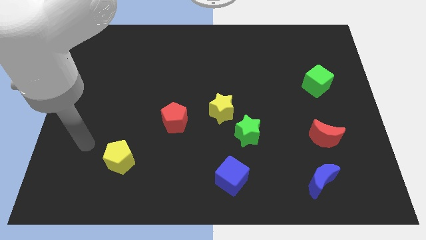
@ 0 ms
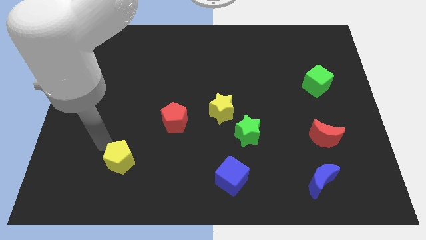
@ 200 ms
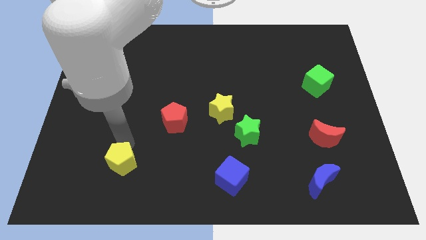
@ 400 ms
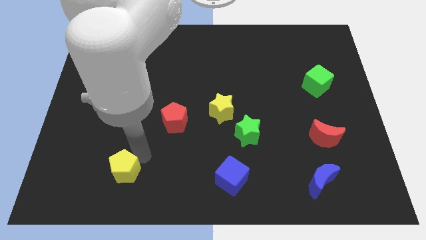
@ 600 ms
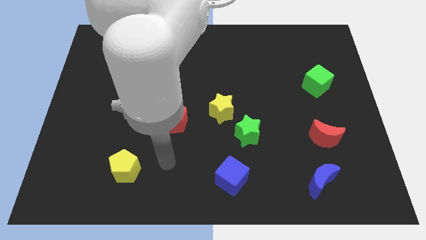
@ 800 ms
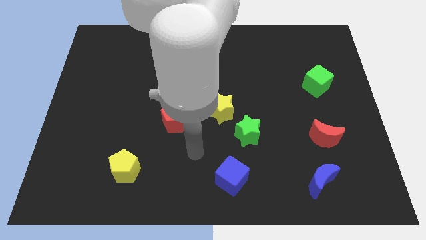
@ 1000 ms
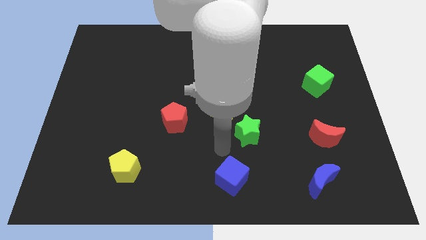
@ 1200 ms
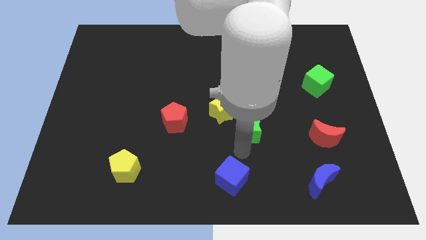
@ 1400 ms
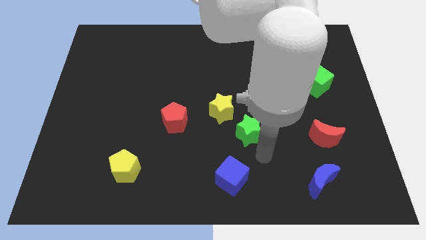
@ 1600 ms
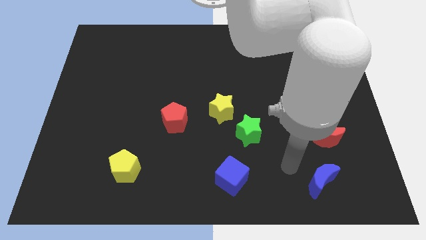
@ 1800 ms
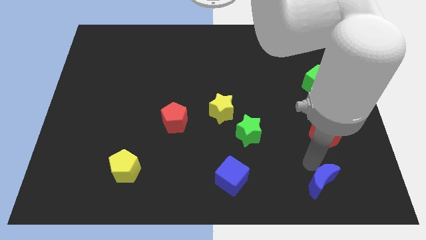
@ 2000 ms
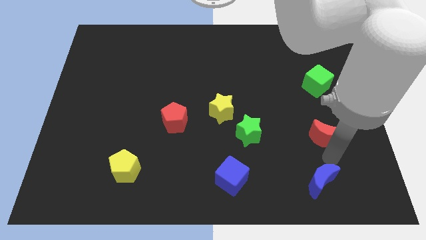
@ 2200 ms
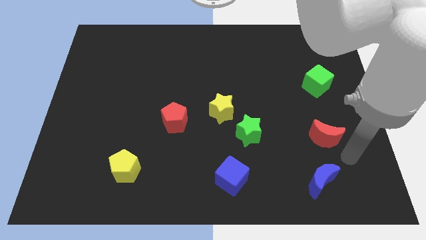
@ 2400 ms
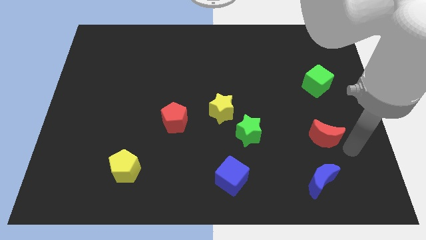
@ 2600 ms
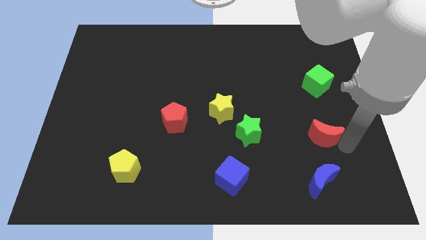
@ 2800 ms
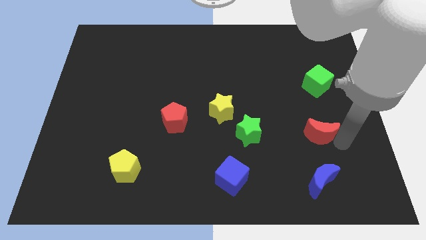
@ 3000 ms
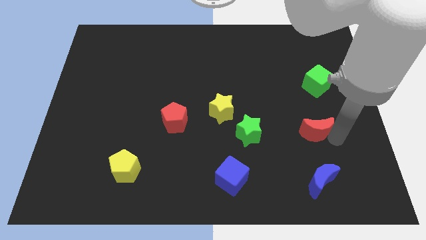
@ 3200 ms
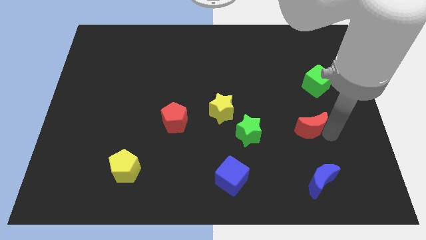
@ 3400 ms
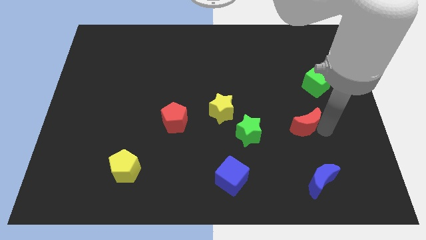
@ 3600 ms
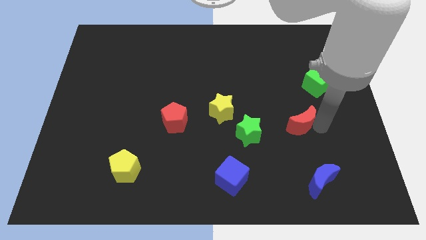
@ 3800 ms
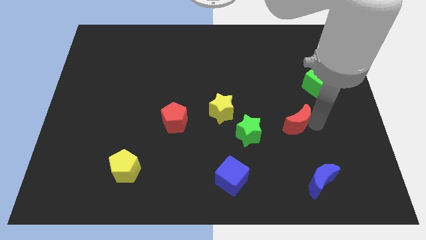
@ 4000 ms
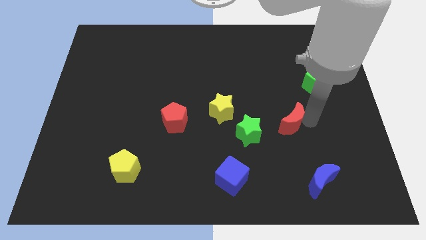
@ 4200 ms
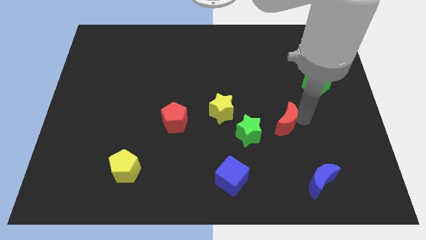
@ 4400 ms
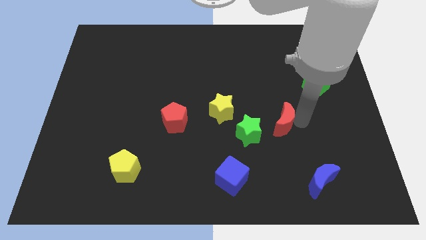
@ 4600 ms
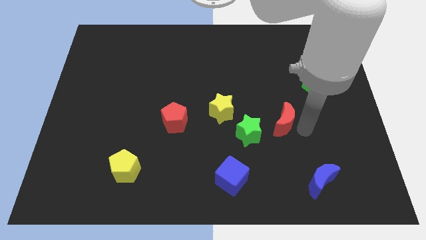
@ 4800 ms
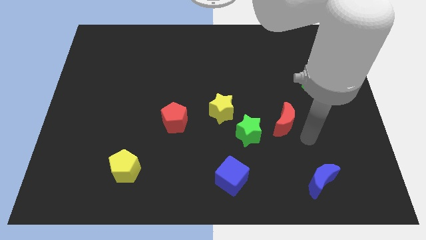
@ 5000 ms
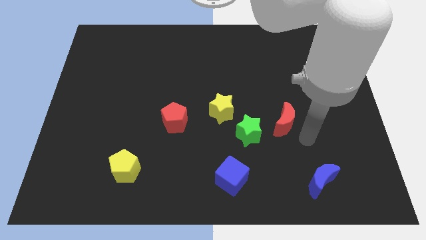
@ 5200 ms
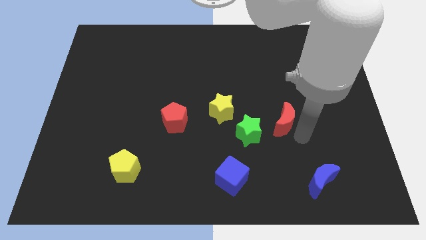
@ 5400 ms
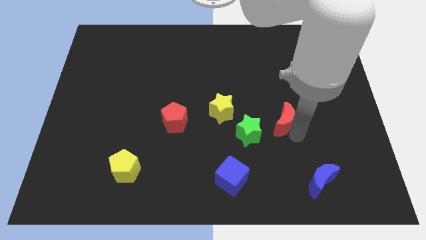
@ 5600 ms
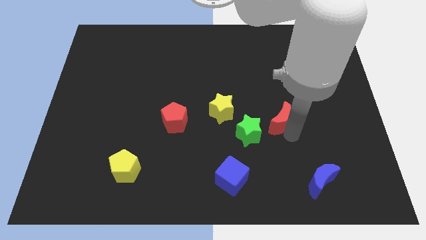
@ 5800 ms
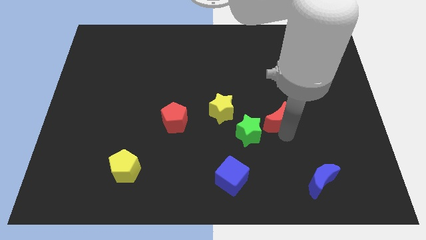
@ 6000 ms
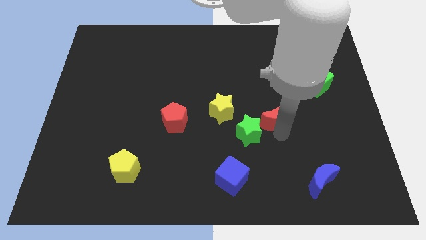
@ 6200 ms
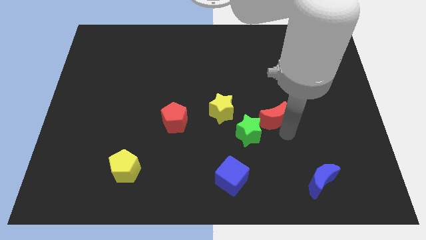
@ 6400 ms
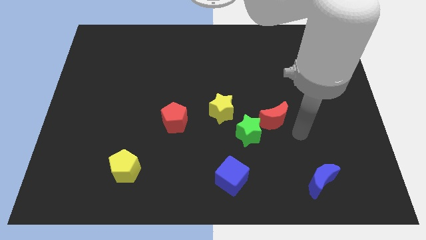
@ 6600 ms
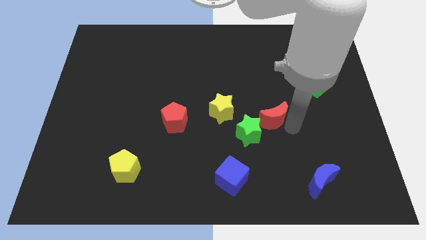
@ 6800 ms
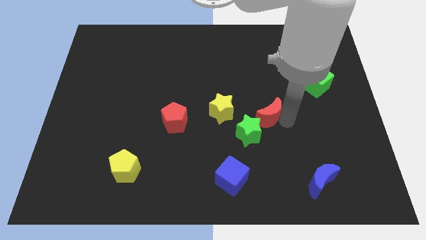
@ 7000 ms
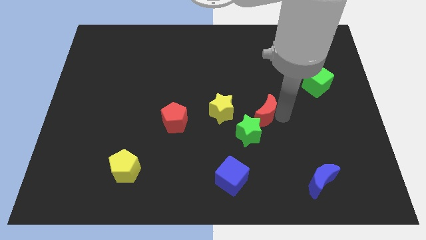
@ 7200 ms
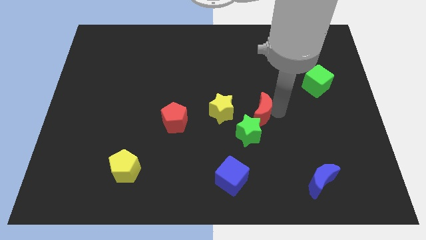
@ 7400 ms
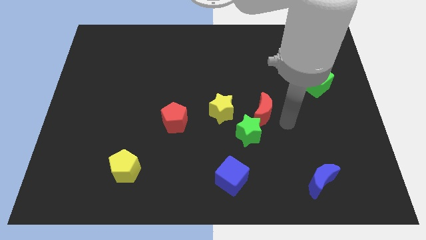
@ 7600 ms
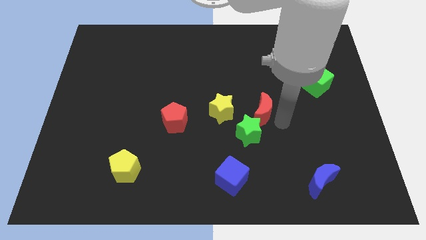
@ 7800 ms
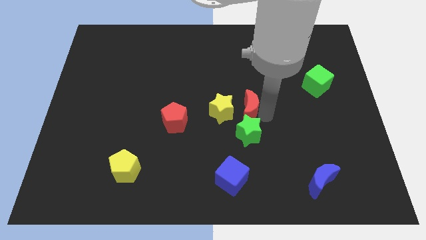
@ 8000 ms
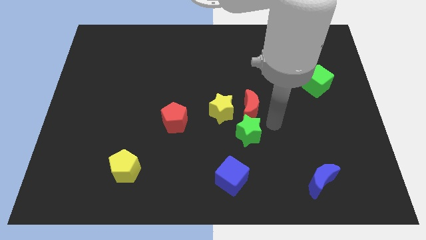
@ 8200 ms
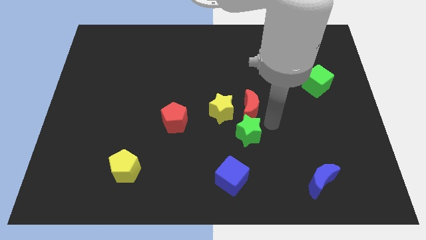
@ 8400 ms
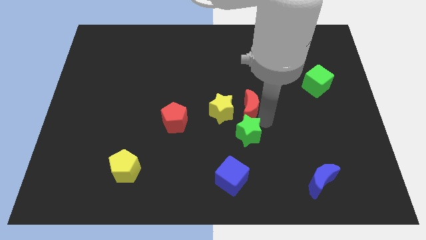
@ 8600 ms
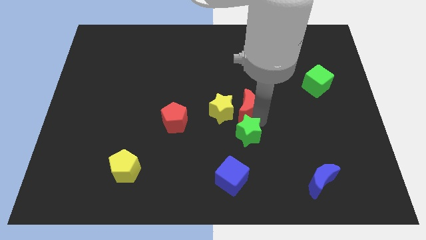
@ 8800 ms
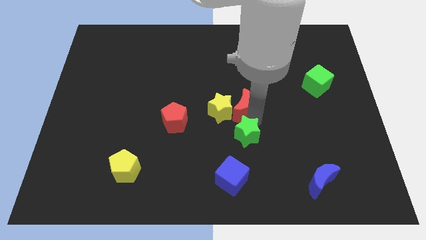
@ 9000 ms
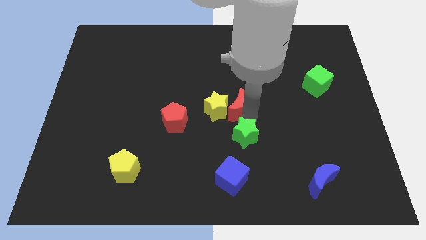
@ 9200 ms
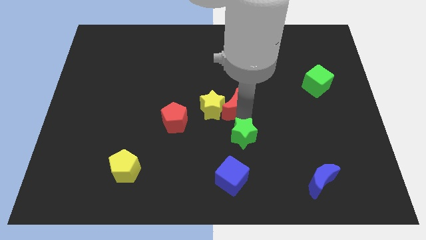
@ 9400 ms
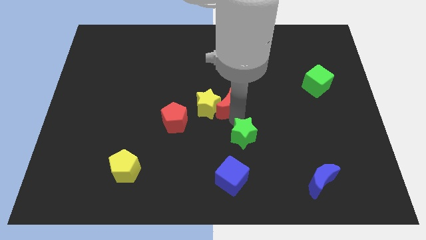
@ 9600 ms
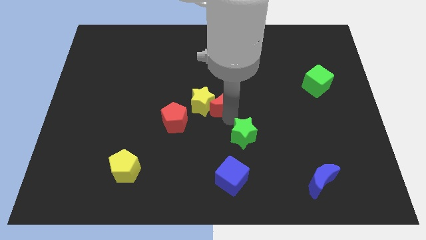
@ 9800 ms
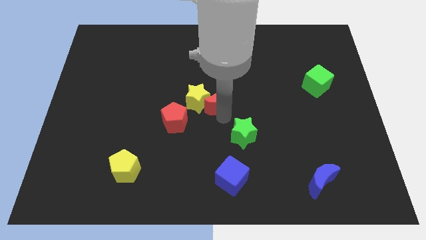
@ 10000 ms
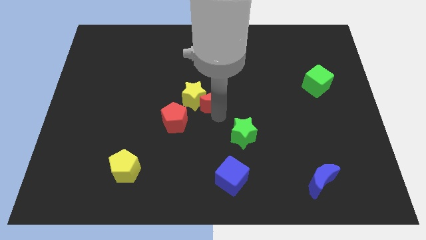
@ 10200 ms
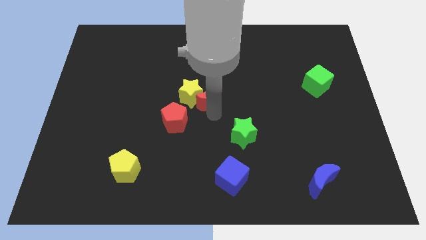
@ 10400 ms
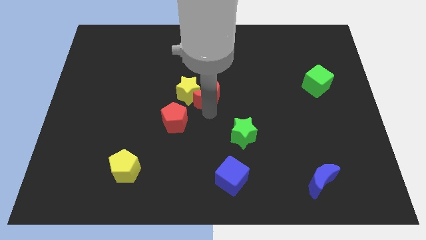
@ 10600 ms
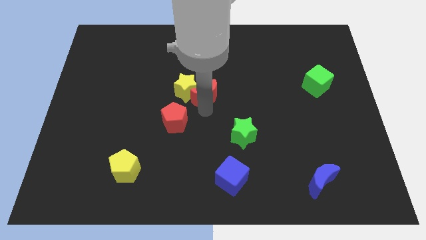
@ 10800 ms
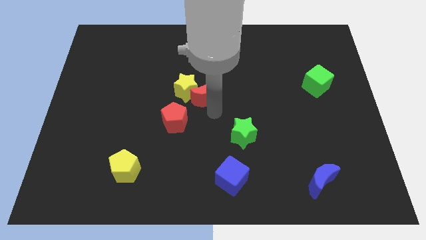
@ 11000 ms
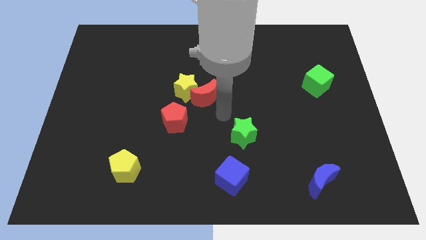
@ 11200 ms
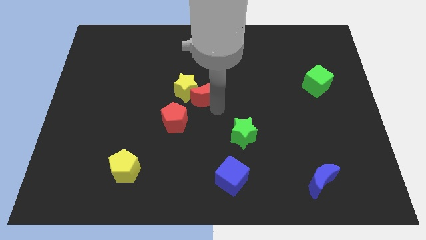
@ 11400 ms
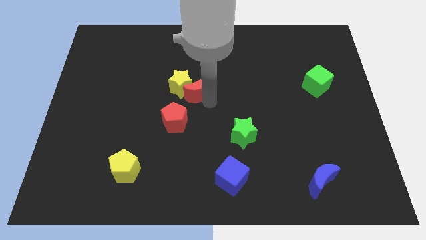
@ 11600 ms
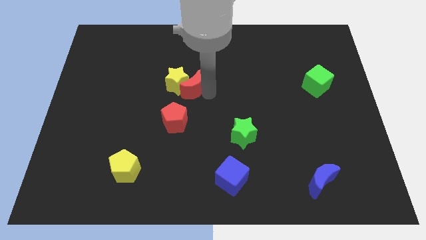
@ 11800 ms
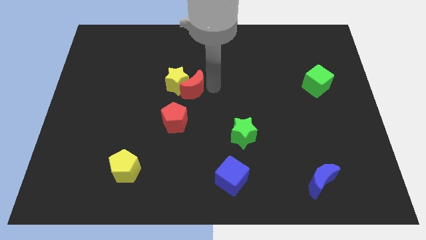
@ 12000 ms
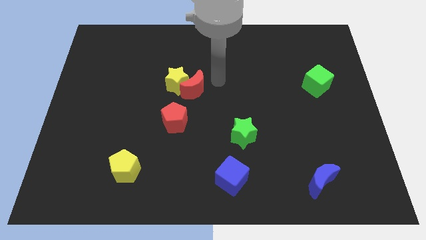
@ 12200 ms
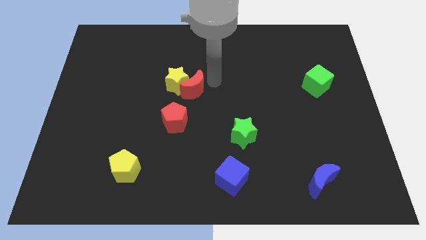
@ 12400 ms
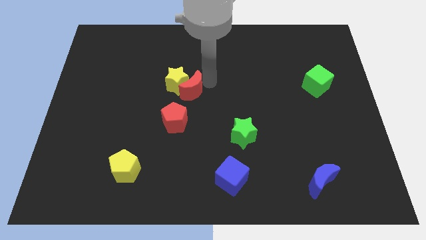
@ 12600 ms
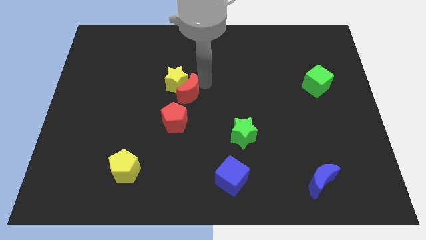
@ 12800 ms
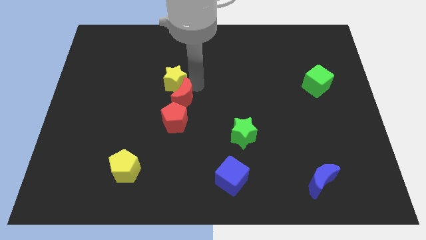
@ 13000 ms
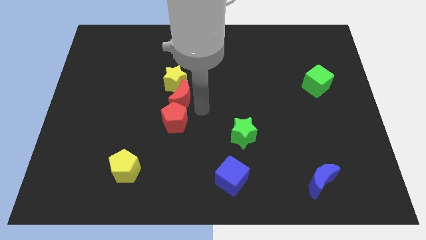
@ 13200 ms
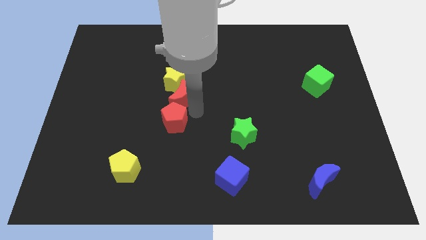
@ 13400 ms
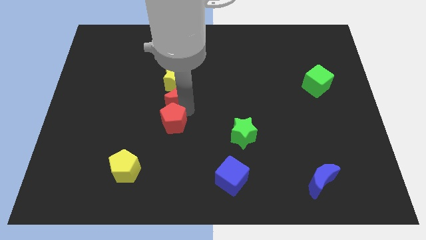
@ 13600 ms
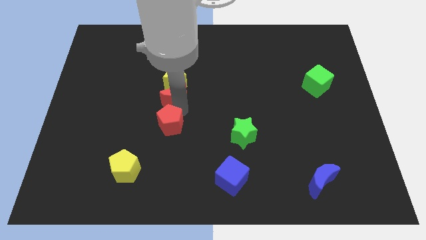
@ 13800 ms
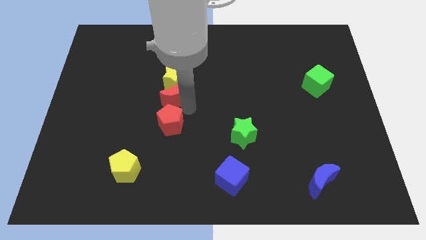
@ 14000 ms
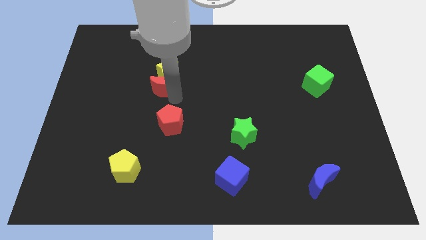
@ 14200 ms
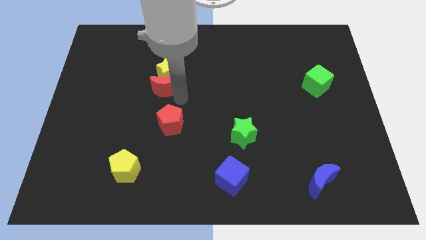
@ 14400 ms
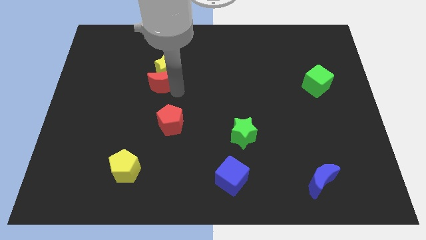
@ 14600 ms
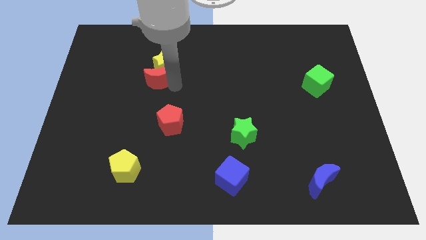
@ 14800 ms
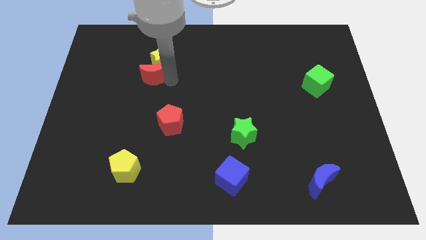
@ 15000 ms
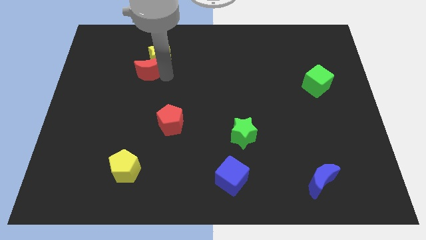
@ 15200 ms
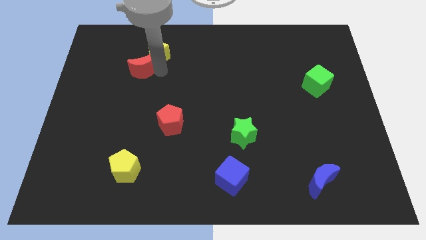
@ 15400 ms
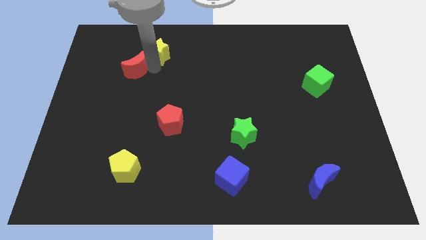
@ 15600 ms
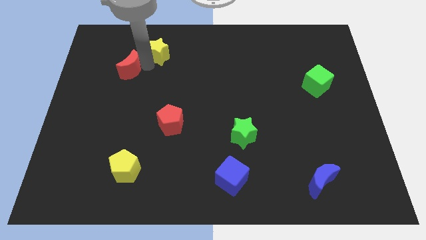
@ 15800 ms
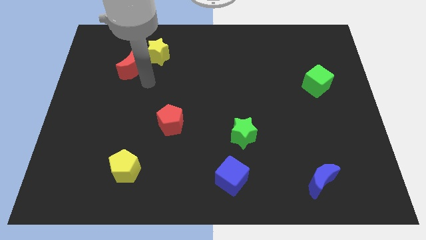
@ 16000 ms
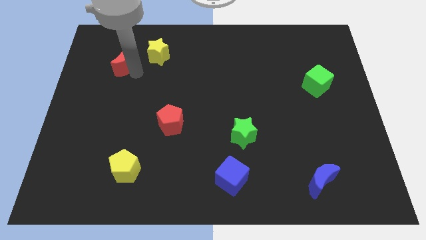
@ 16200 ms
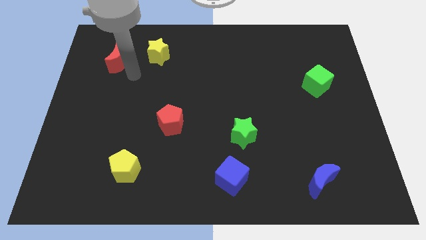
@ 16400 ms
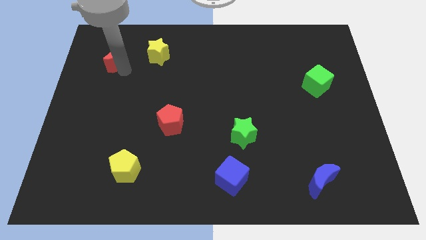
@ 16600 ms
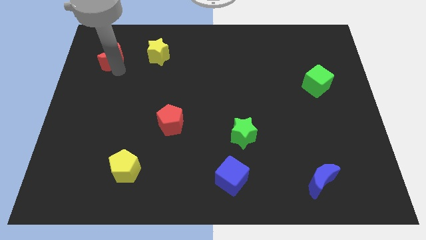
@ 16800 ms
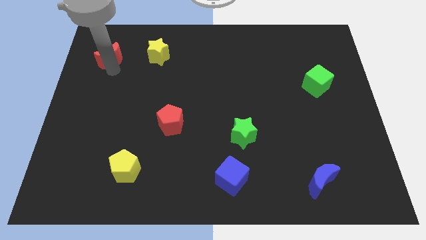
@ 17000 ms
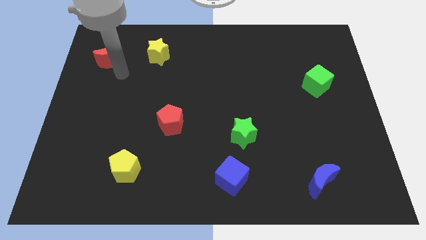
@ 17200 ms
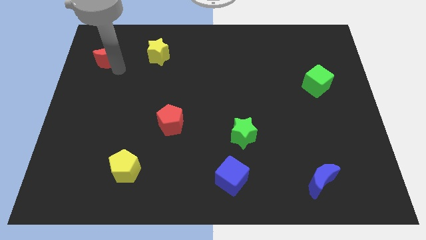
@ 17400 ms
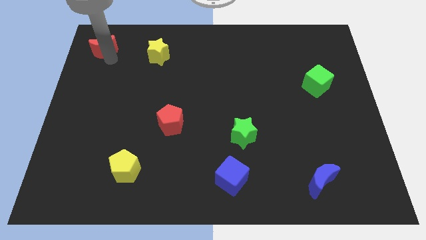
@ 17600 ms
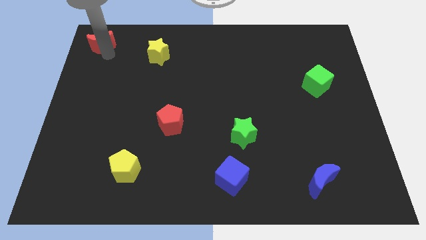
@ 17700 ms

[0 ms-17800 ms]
move the red moon to the upper left corner
